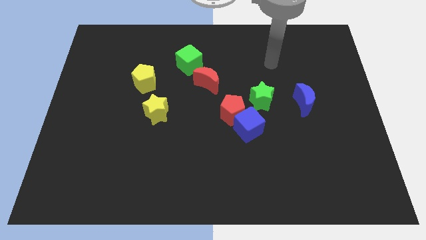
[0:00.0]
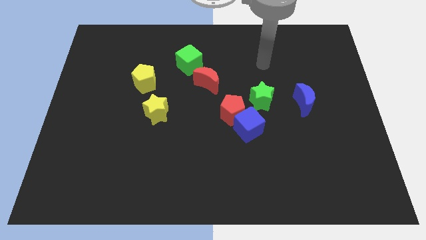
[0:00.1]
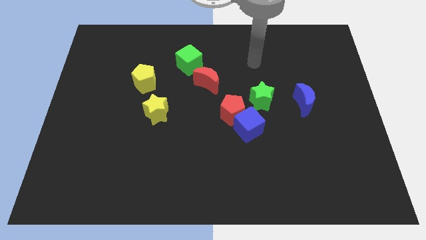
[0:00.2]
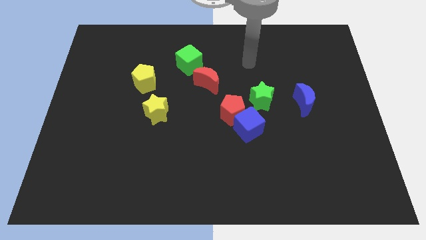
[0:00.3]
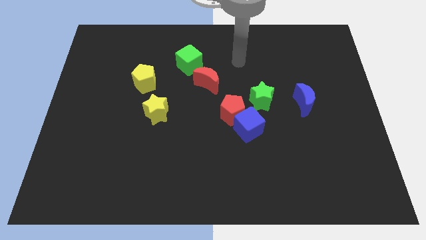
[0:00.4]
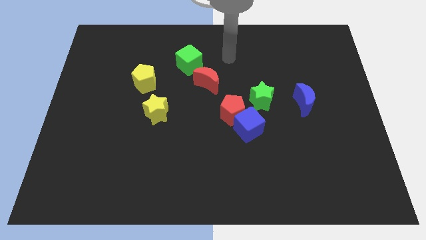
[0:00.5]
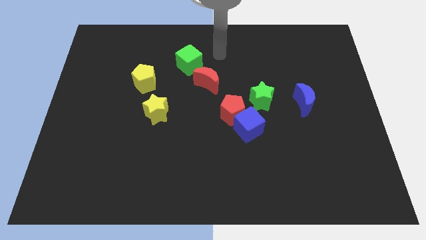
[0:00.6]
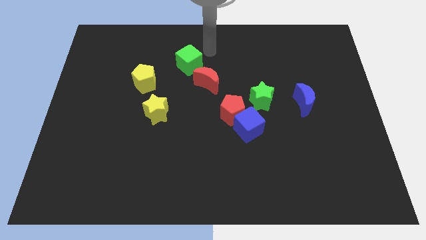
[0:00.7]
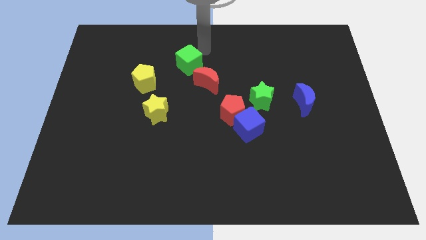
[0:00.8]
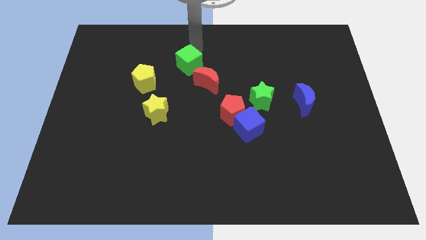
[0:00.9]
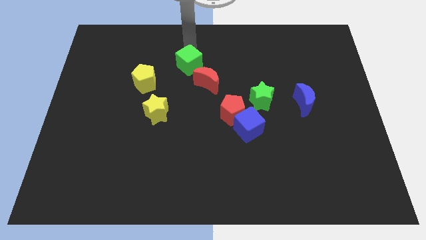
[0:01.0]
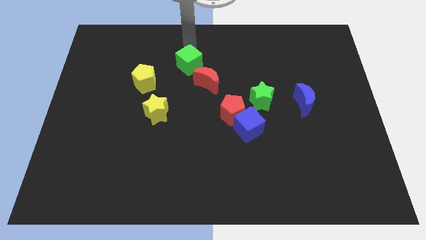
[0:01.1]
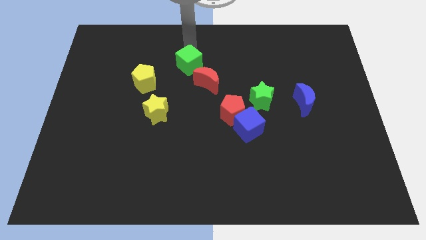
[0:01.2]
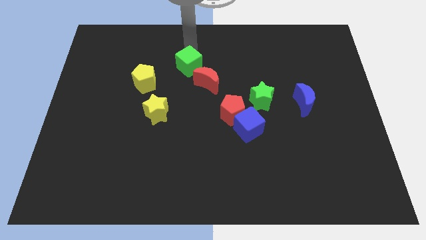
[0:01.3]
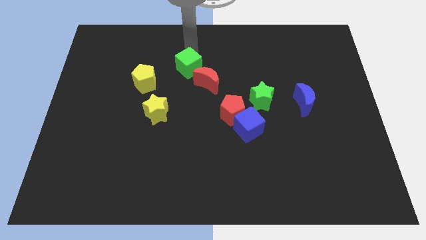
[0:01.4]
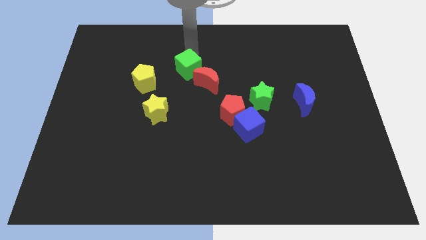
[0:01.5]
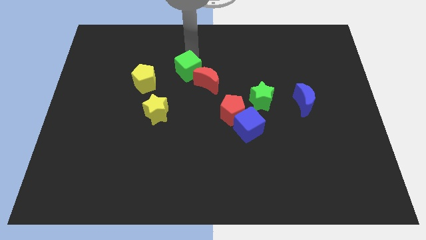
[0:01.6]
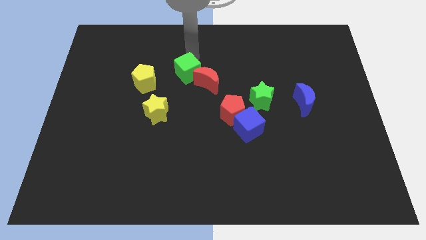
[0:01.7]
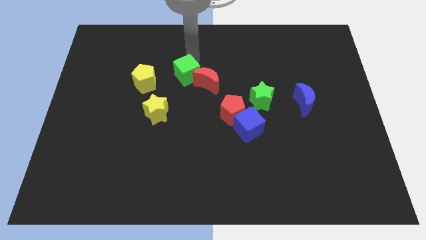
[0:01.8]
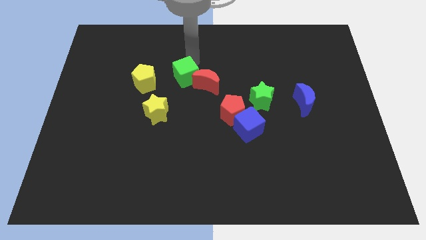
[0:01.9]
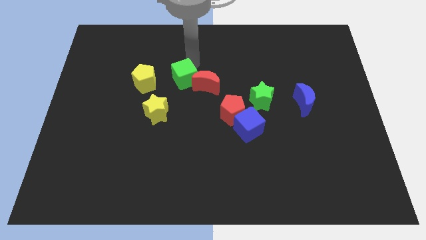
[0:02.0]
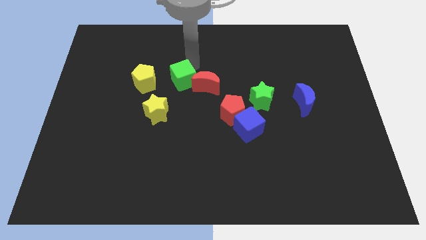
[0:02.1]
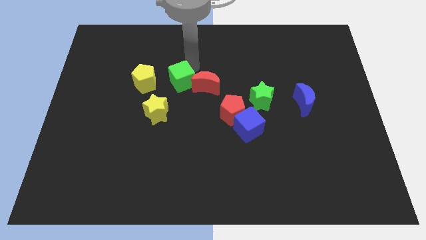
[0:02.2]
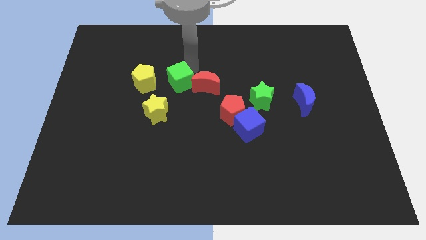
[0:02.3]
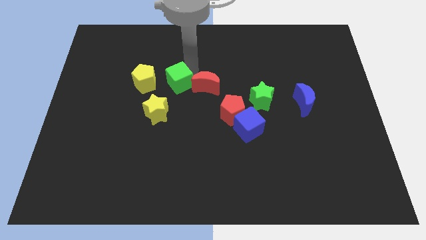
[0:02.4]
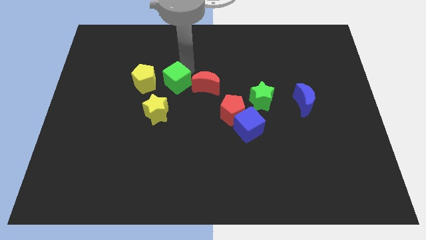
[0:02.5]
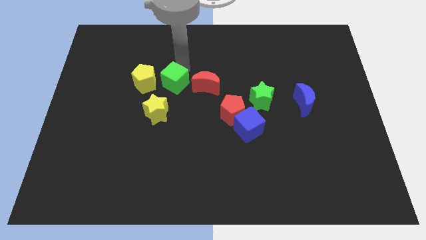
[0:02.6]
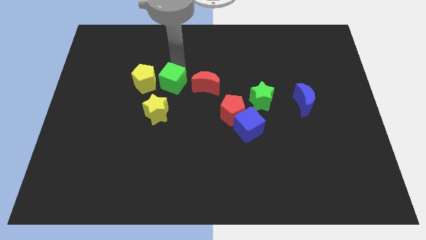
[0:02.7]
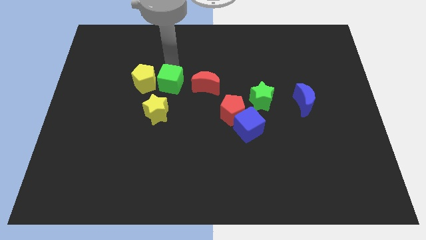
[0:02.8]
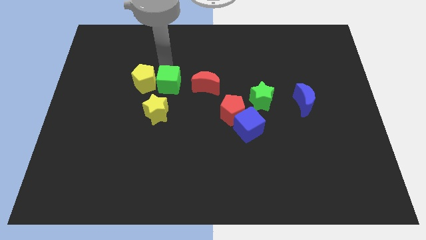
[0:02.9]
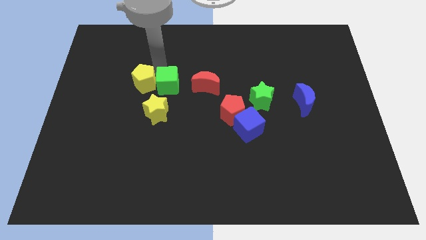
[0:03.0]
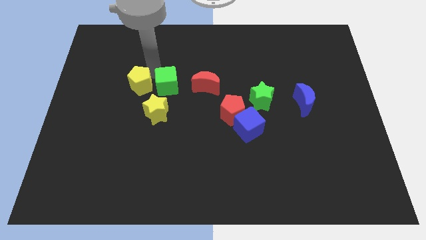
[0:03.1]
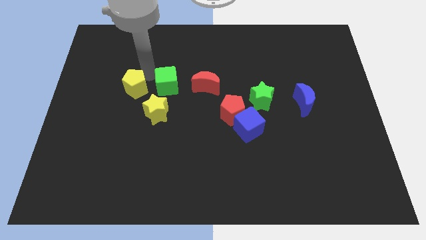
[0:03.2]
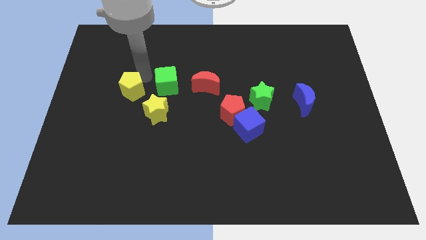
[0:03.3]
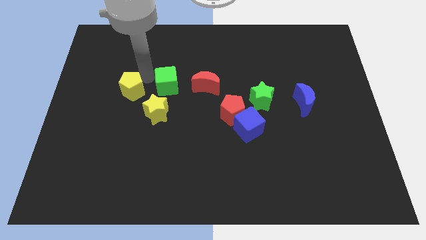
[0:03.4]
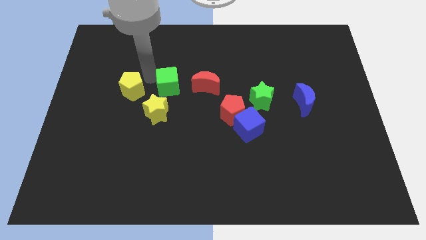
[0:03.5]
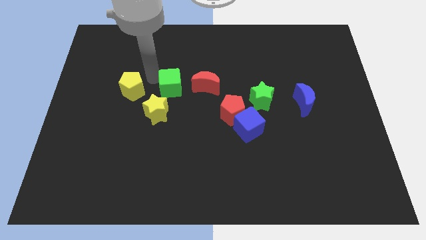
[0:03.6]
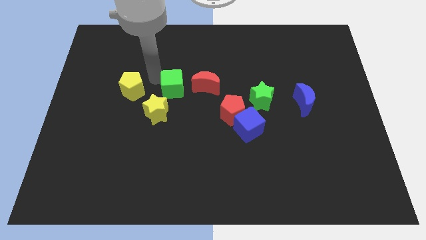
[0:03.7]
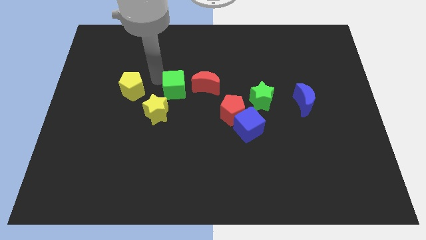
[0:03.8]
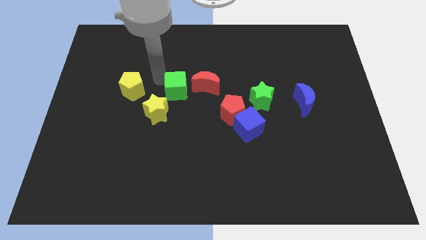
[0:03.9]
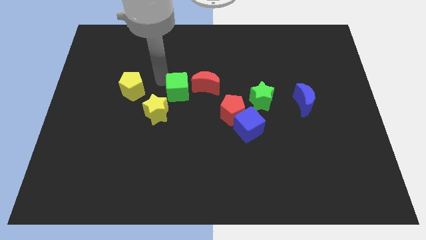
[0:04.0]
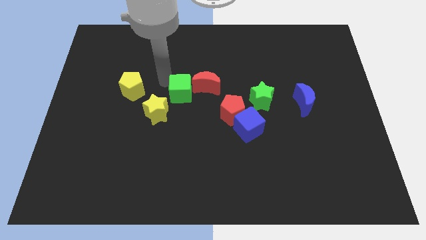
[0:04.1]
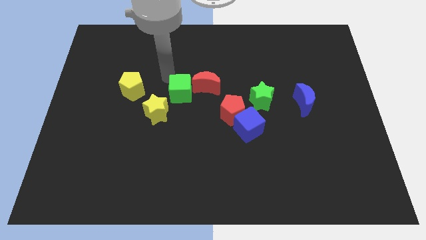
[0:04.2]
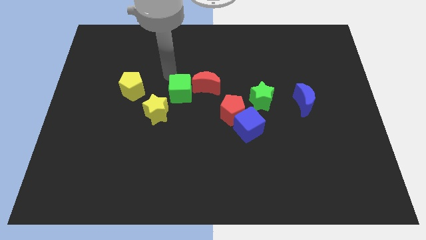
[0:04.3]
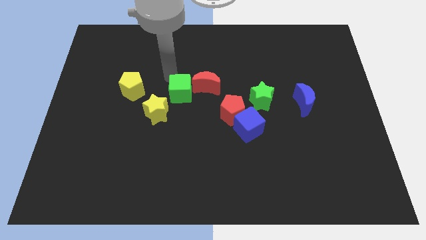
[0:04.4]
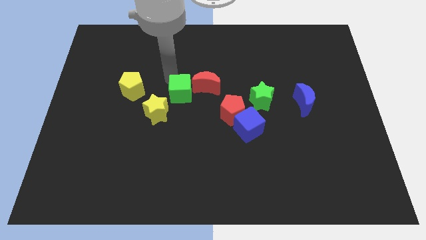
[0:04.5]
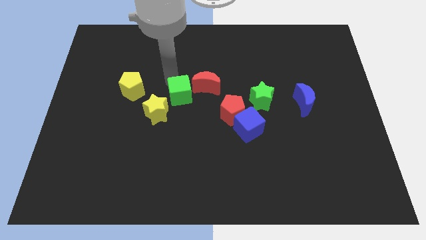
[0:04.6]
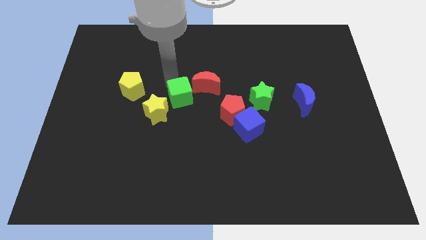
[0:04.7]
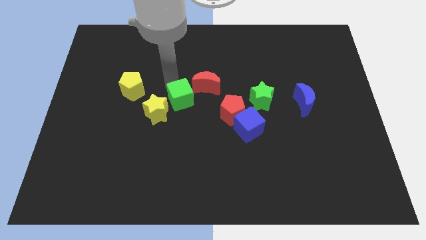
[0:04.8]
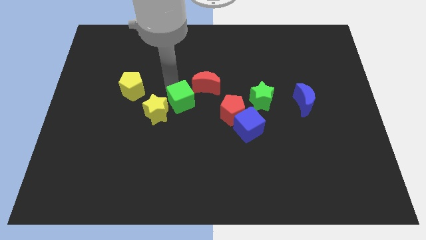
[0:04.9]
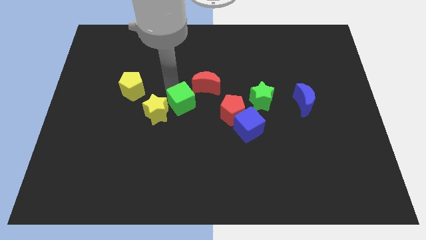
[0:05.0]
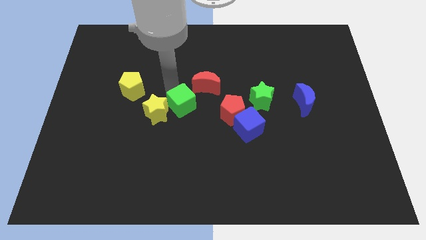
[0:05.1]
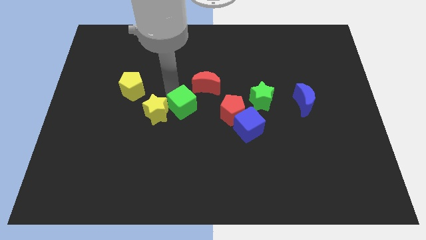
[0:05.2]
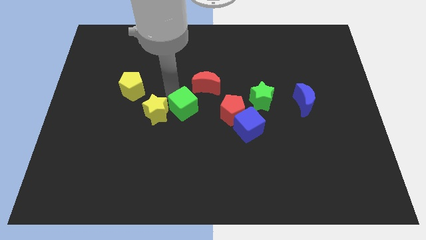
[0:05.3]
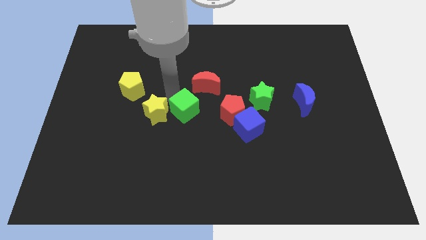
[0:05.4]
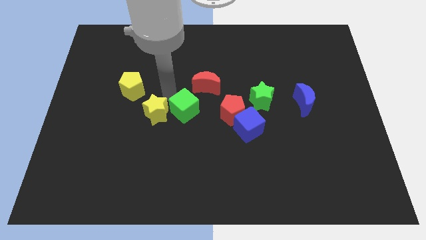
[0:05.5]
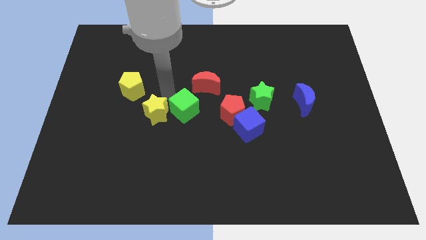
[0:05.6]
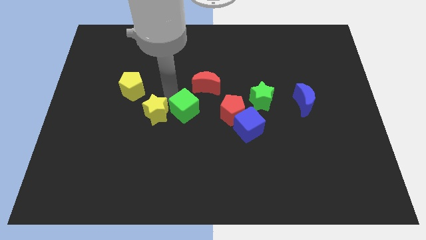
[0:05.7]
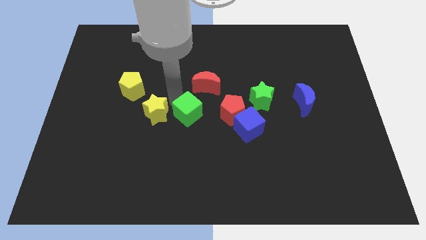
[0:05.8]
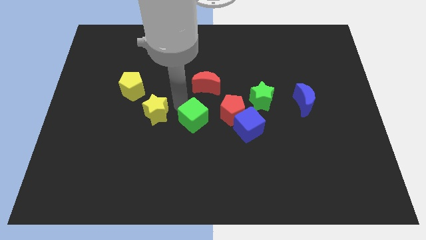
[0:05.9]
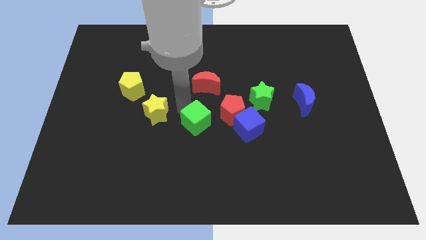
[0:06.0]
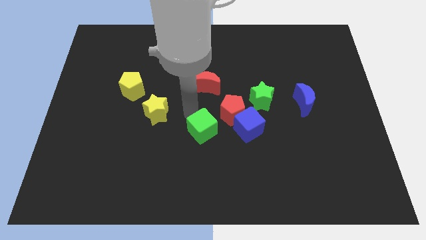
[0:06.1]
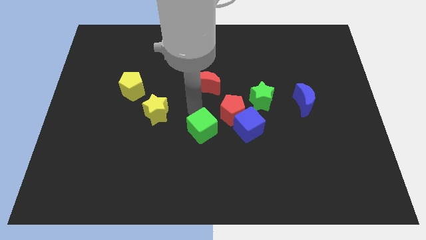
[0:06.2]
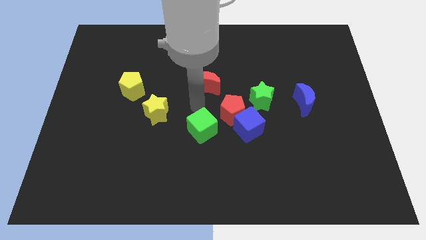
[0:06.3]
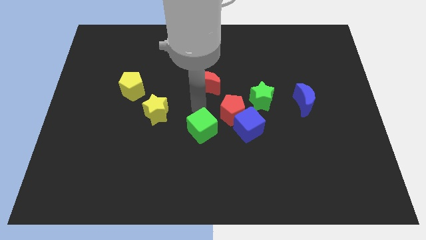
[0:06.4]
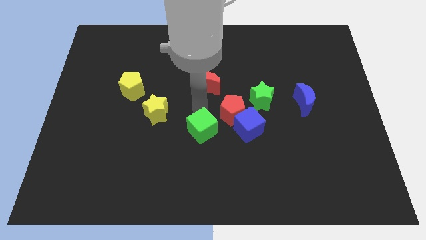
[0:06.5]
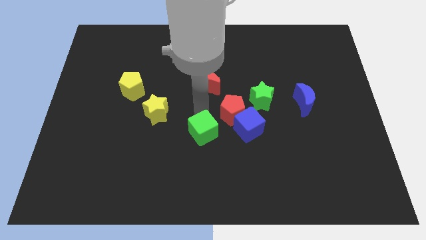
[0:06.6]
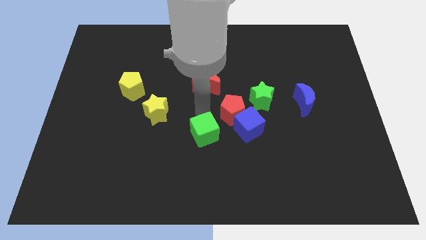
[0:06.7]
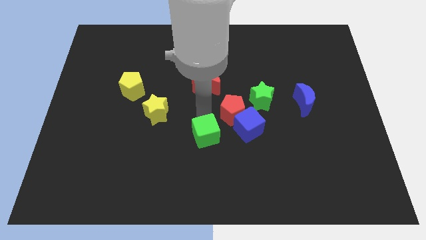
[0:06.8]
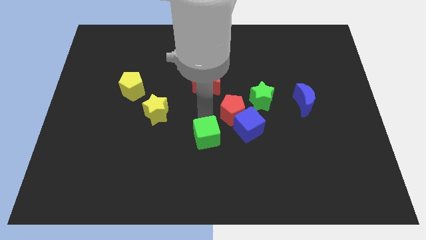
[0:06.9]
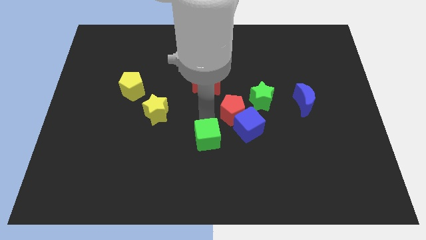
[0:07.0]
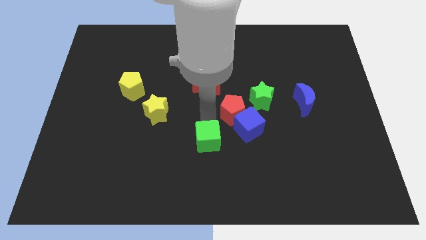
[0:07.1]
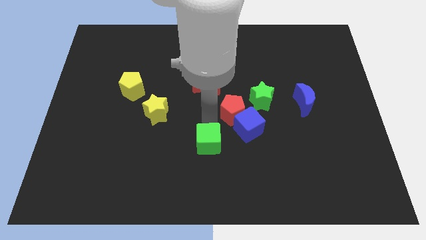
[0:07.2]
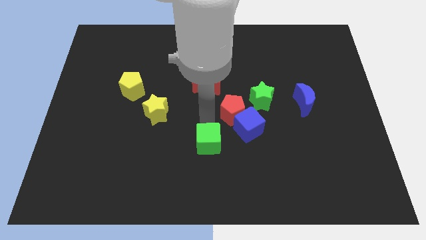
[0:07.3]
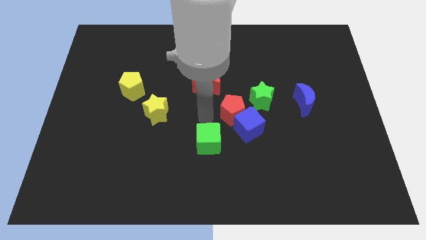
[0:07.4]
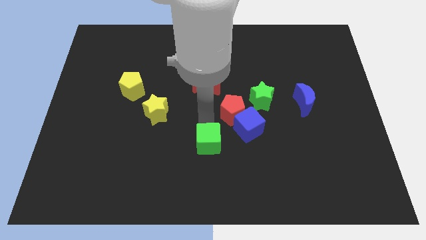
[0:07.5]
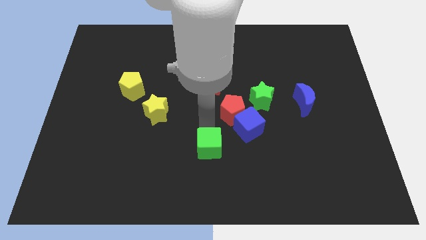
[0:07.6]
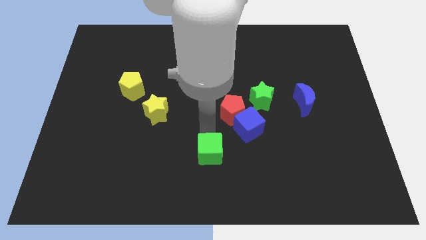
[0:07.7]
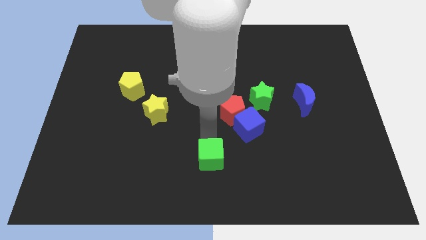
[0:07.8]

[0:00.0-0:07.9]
put the green cube to the bottom side

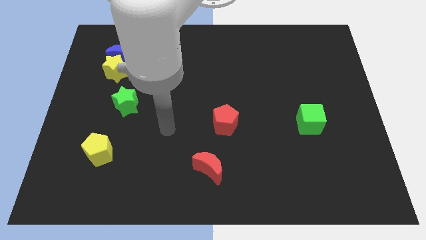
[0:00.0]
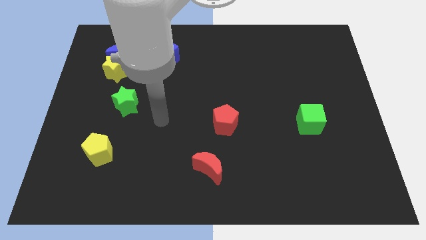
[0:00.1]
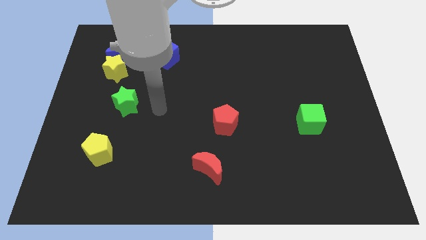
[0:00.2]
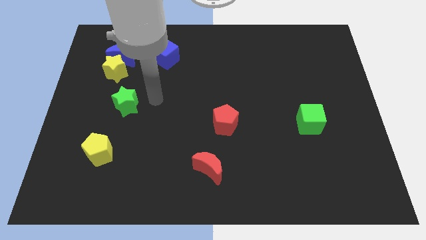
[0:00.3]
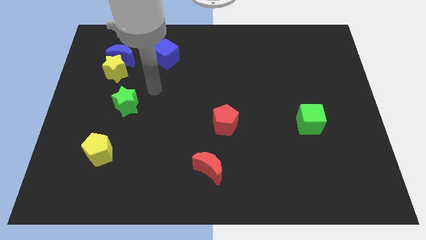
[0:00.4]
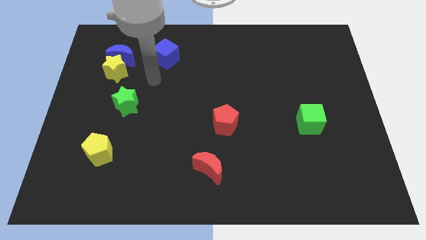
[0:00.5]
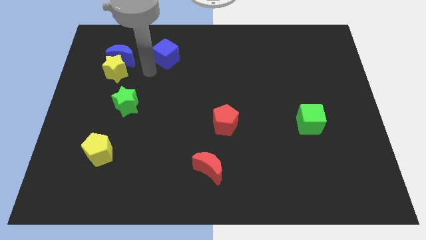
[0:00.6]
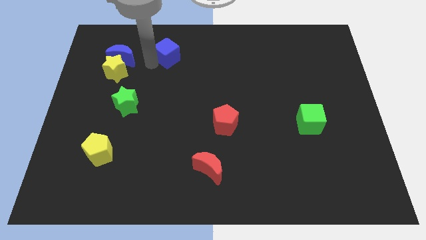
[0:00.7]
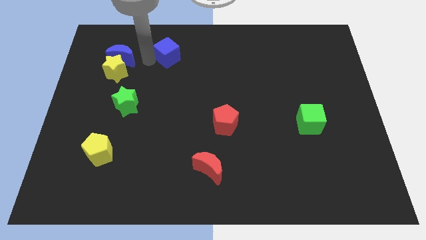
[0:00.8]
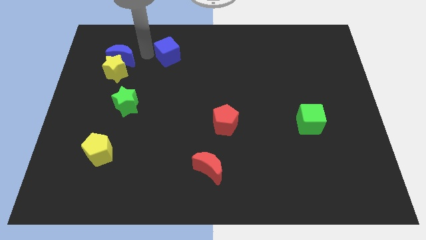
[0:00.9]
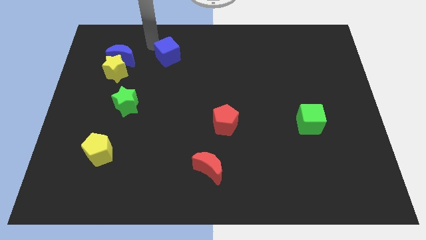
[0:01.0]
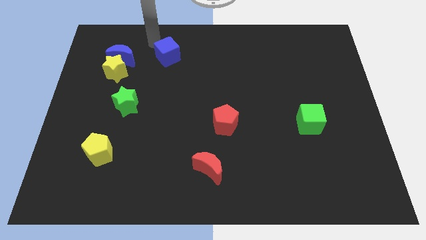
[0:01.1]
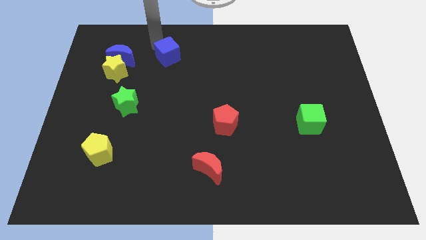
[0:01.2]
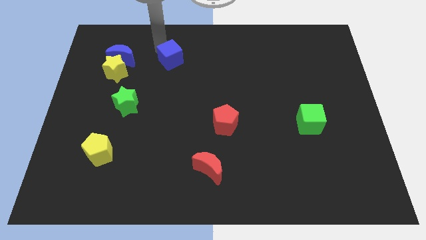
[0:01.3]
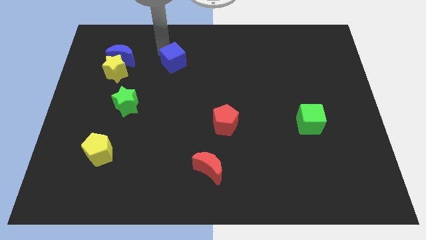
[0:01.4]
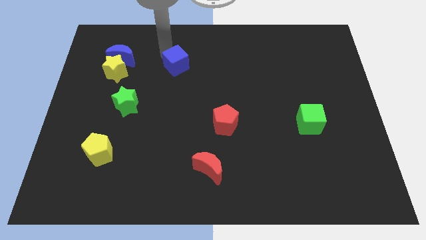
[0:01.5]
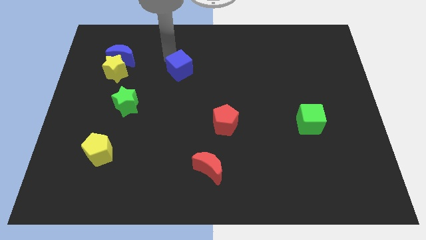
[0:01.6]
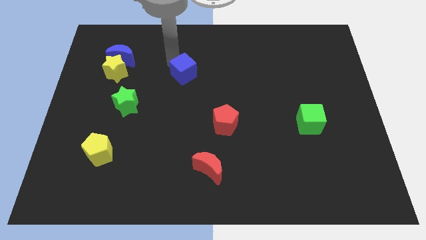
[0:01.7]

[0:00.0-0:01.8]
push the blue cube to the middle
